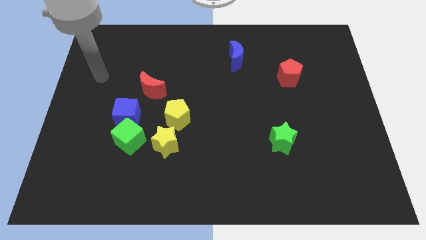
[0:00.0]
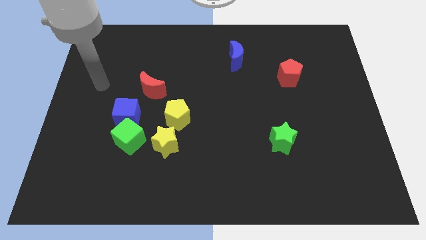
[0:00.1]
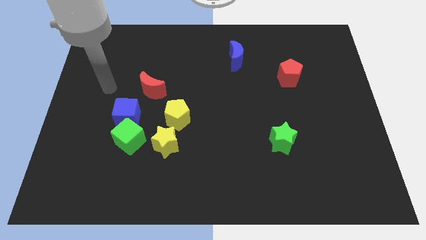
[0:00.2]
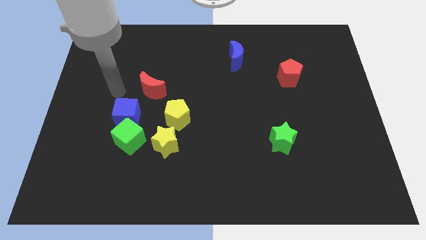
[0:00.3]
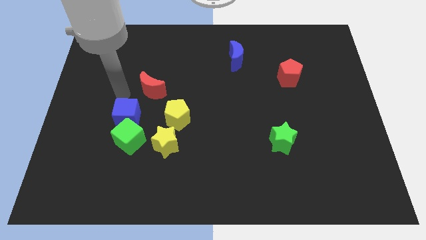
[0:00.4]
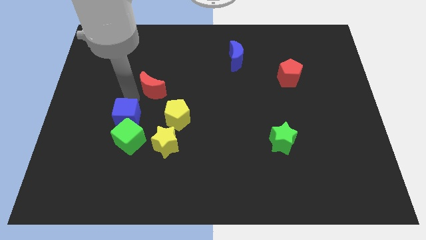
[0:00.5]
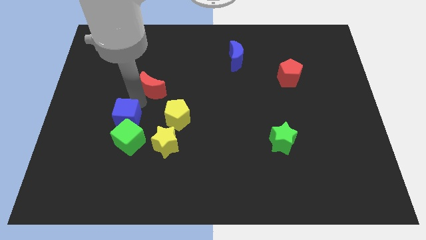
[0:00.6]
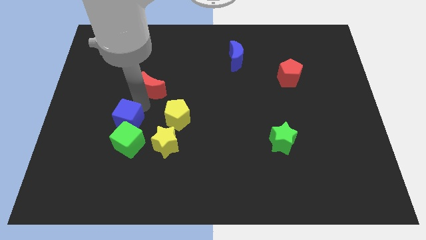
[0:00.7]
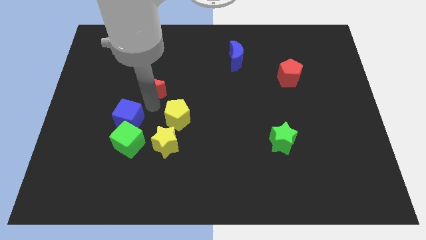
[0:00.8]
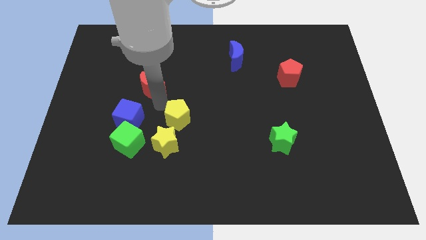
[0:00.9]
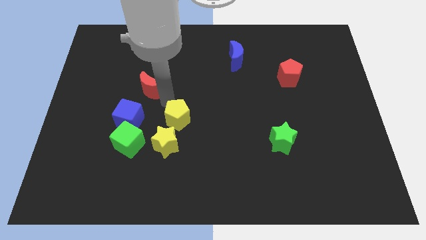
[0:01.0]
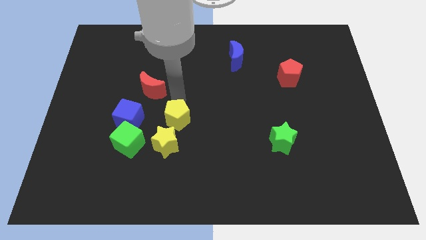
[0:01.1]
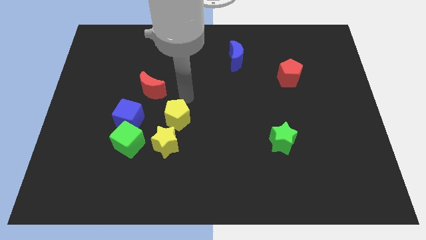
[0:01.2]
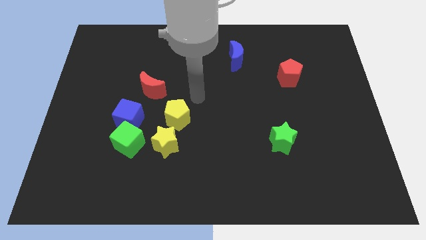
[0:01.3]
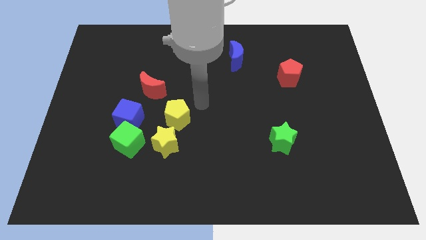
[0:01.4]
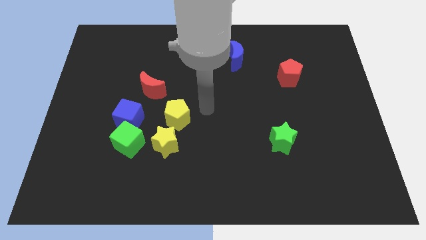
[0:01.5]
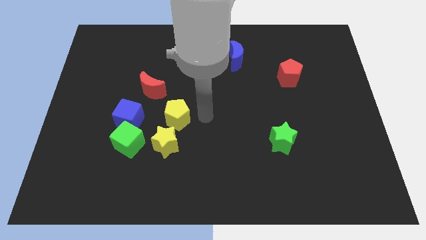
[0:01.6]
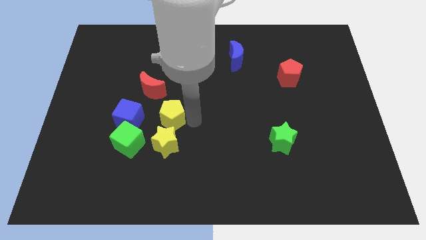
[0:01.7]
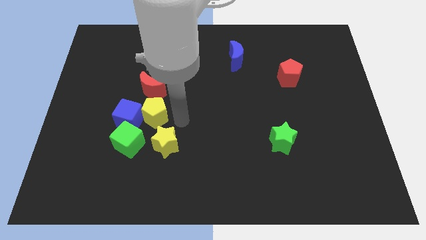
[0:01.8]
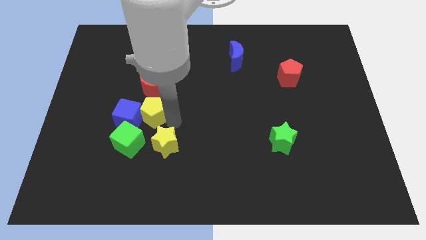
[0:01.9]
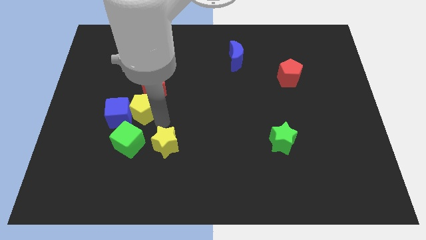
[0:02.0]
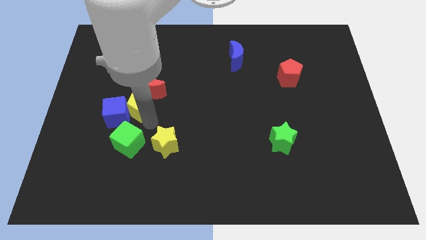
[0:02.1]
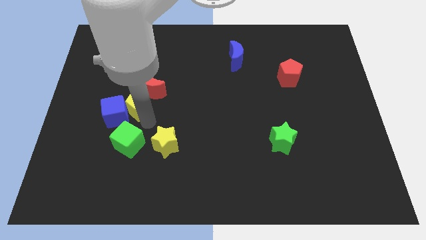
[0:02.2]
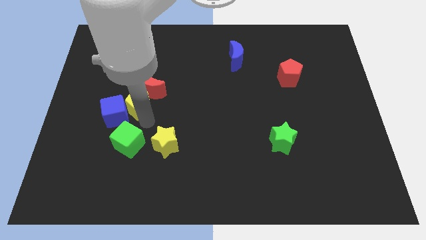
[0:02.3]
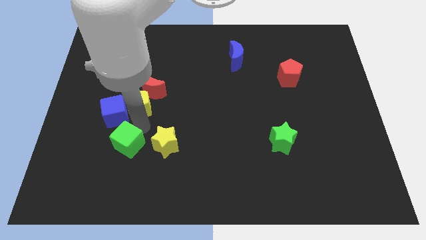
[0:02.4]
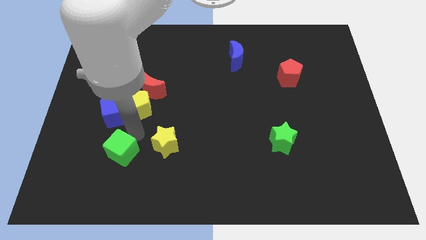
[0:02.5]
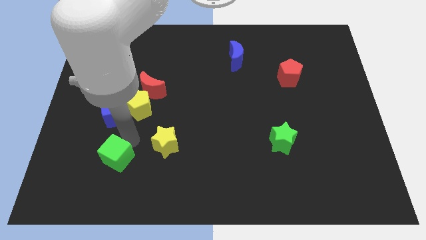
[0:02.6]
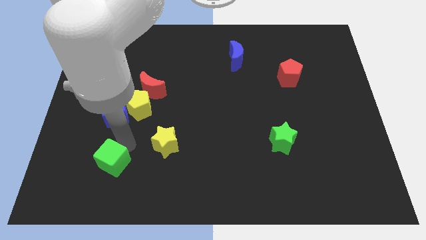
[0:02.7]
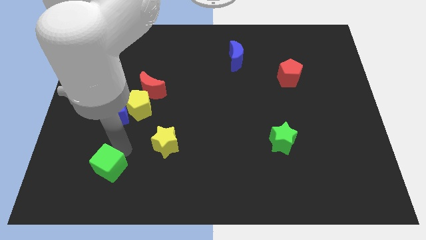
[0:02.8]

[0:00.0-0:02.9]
pull the green cube apart from the blue cube and yellow star

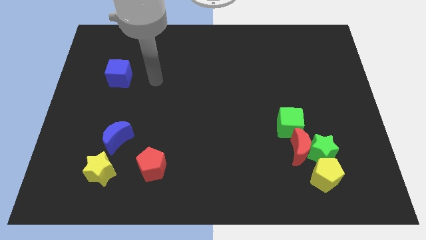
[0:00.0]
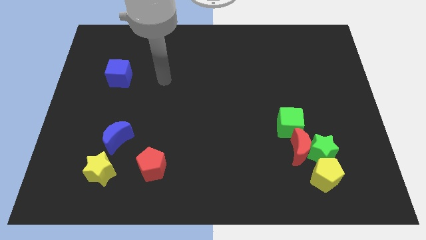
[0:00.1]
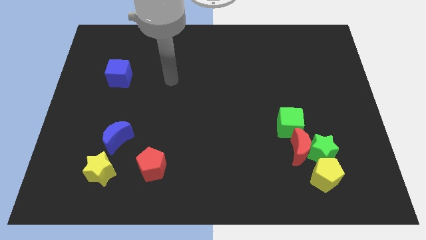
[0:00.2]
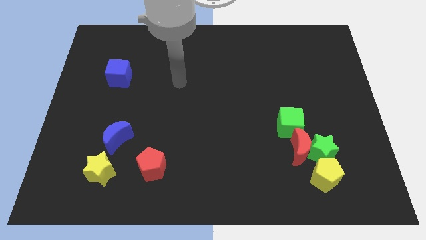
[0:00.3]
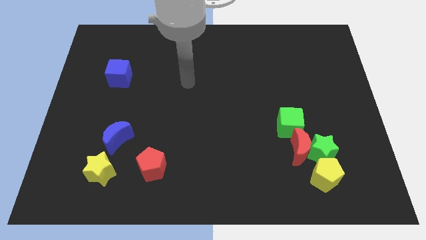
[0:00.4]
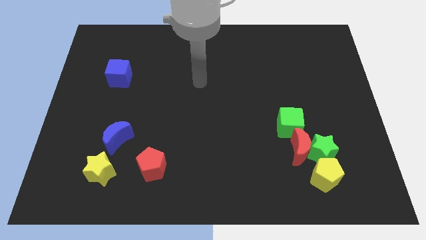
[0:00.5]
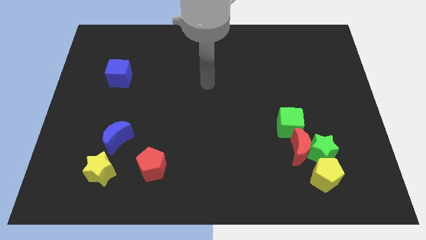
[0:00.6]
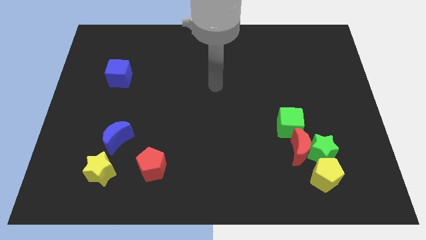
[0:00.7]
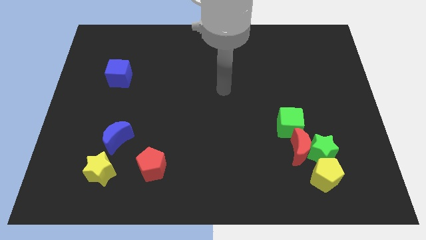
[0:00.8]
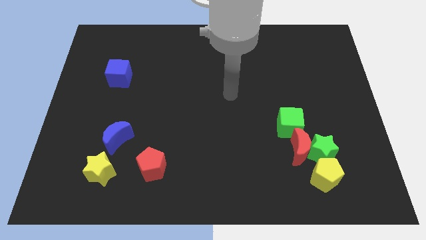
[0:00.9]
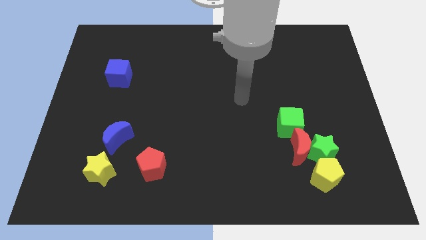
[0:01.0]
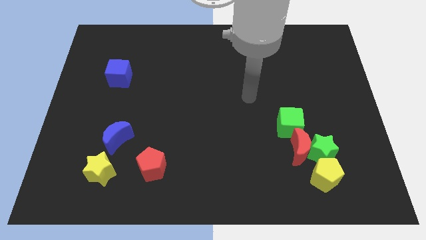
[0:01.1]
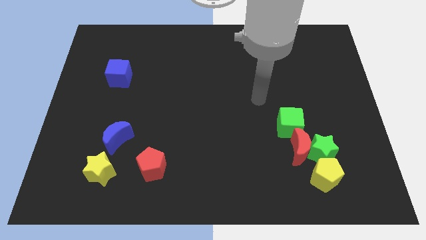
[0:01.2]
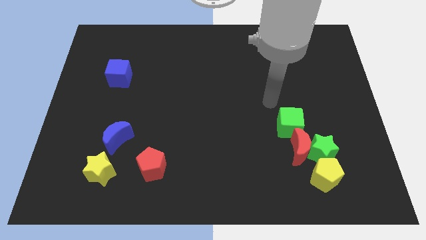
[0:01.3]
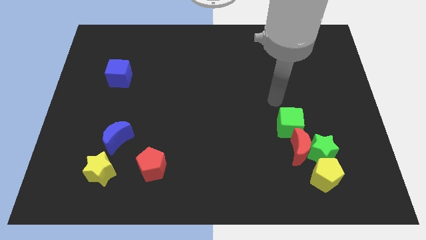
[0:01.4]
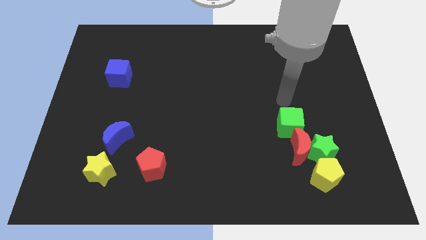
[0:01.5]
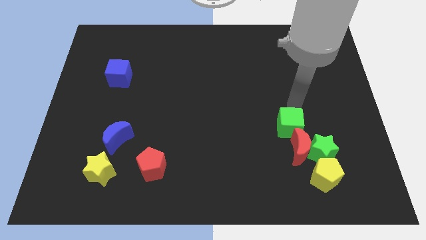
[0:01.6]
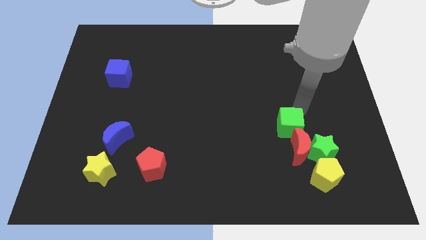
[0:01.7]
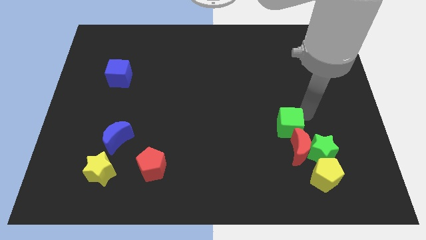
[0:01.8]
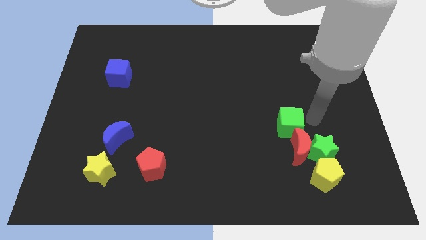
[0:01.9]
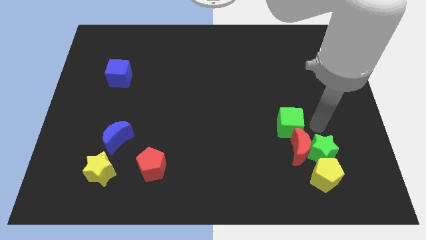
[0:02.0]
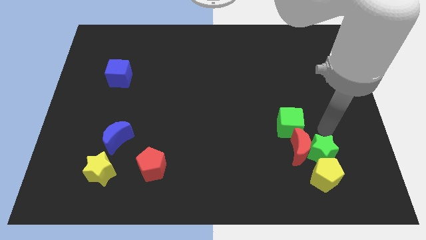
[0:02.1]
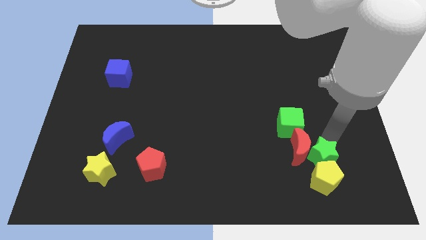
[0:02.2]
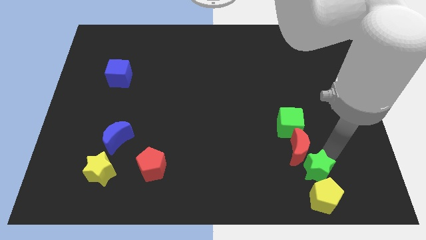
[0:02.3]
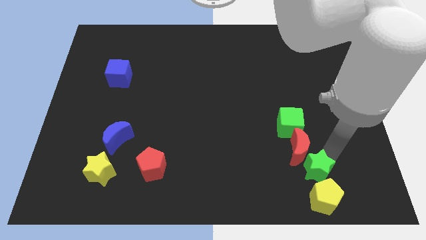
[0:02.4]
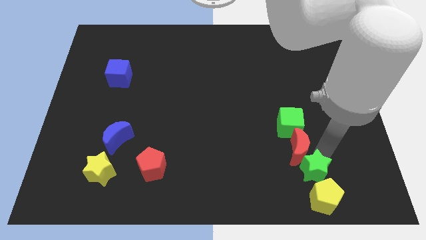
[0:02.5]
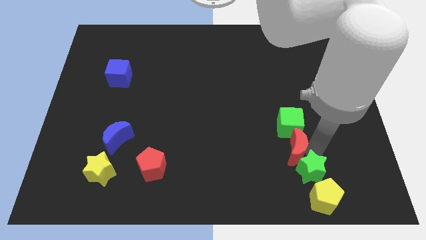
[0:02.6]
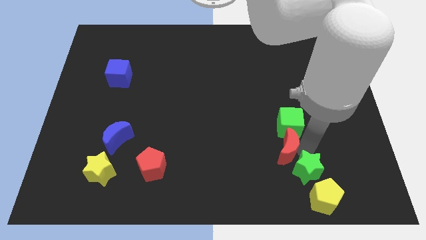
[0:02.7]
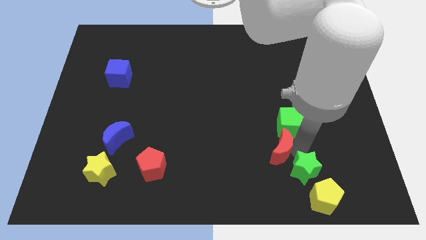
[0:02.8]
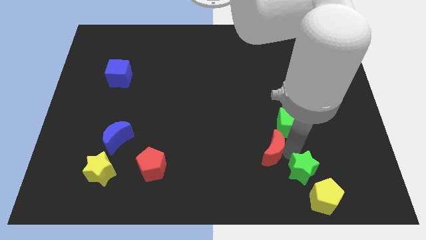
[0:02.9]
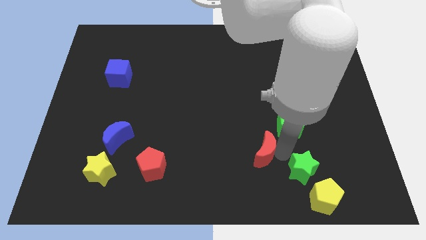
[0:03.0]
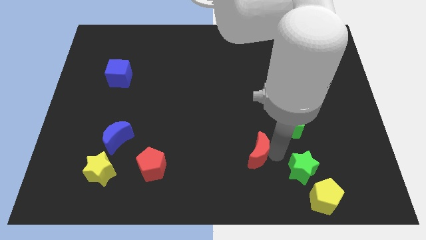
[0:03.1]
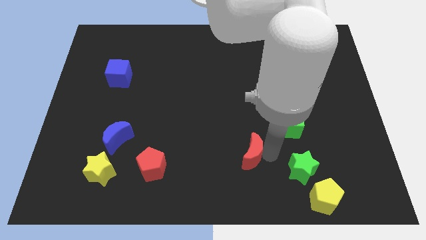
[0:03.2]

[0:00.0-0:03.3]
pull the red moon apart from the green star, green cube, and yellow pentagon

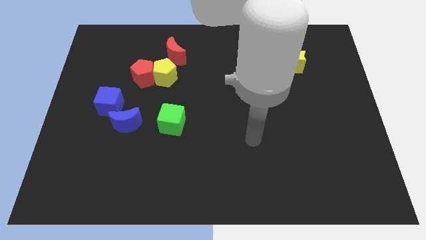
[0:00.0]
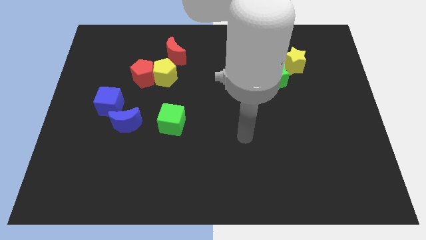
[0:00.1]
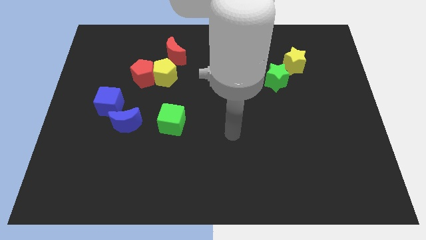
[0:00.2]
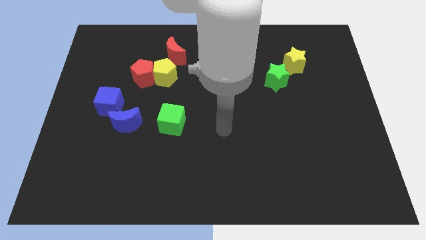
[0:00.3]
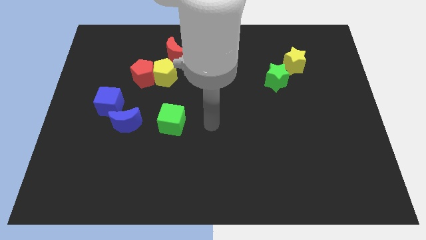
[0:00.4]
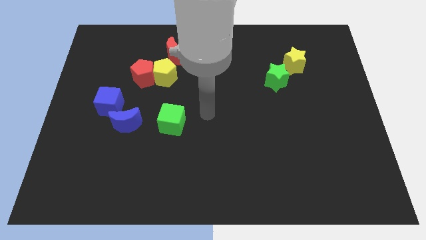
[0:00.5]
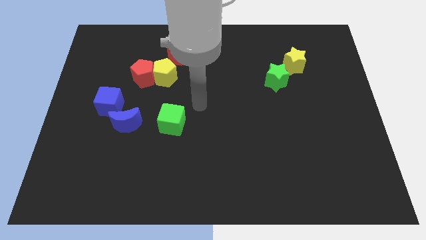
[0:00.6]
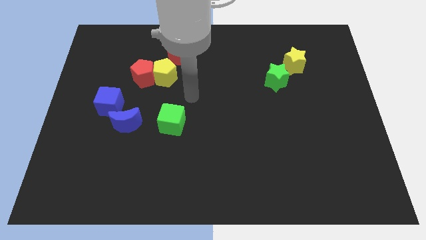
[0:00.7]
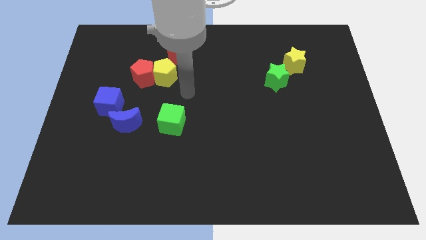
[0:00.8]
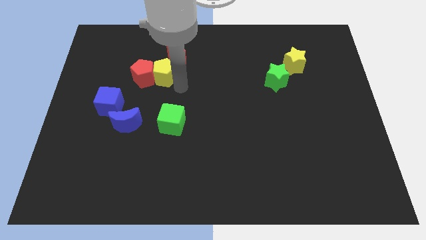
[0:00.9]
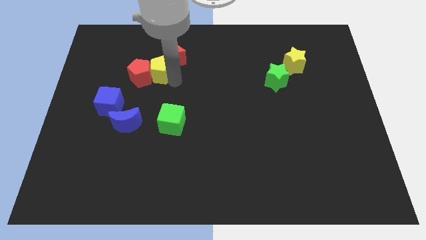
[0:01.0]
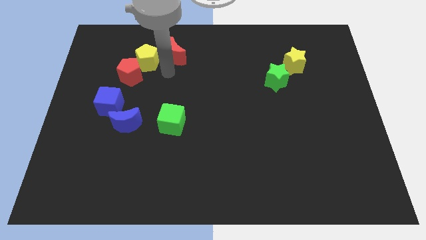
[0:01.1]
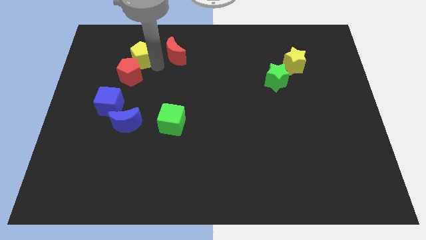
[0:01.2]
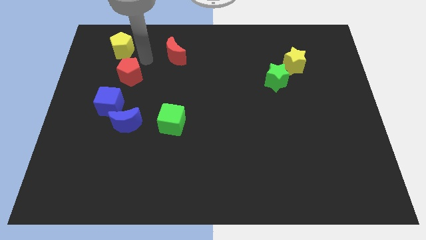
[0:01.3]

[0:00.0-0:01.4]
pull the red pentagon apart from the yellow pentagon

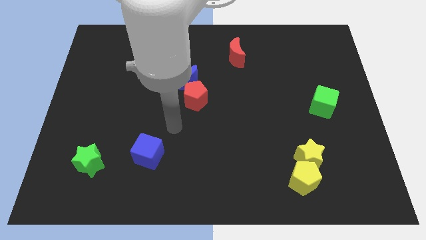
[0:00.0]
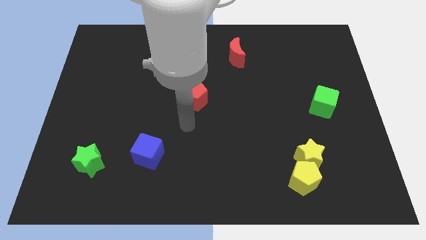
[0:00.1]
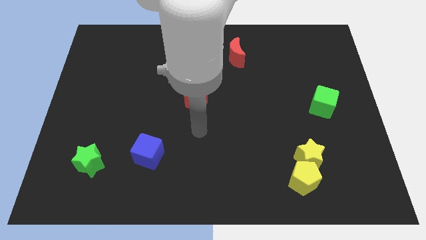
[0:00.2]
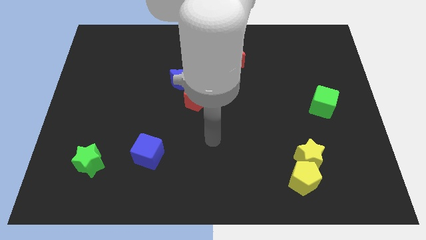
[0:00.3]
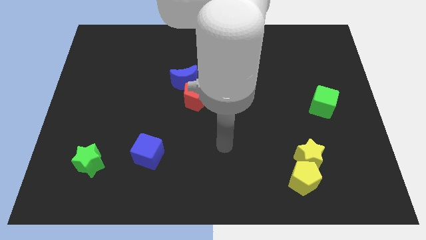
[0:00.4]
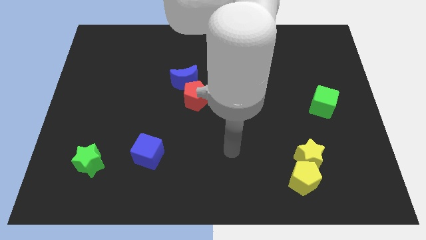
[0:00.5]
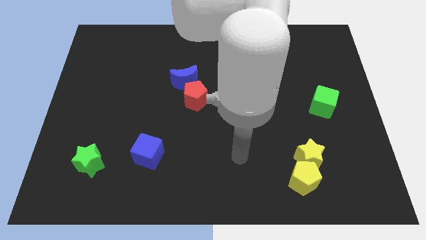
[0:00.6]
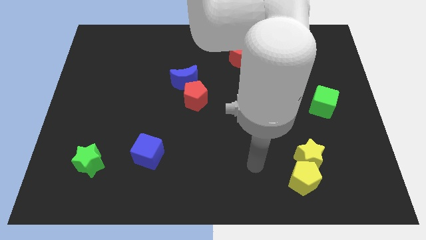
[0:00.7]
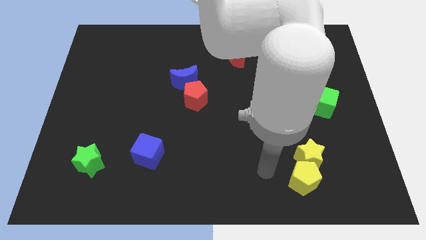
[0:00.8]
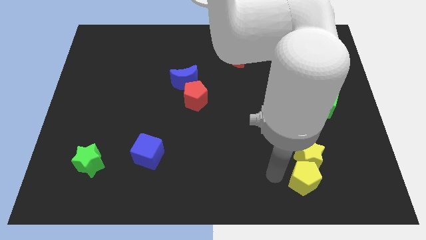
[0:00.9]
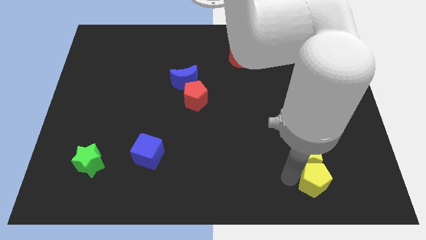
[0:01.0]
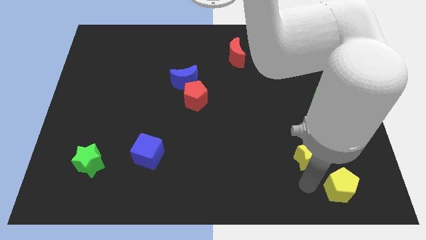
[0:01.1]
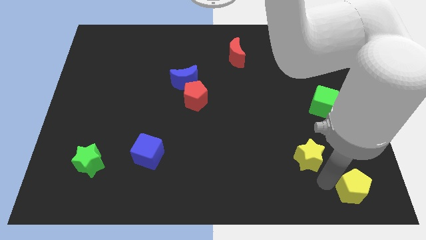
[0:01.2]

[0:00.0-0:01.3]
move the yellow star away from the yellow pentagon

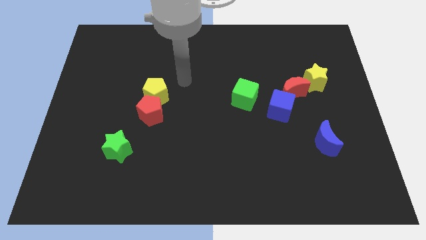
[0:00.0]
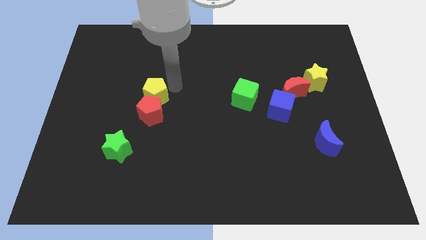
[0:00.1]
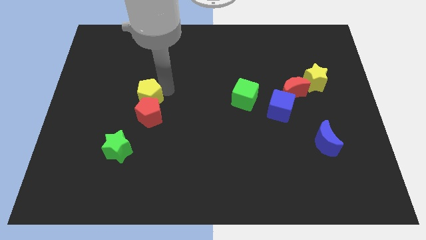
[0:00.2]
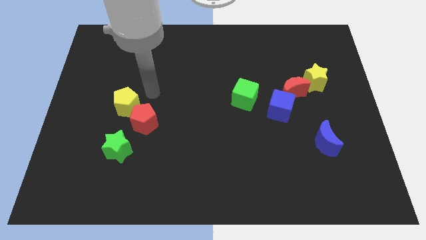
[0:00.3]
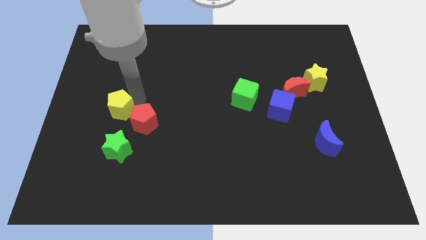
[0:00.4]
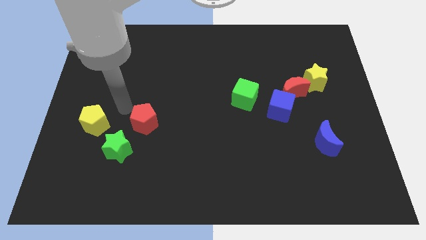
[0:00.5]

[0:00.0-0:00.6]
separate the red pentagon from the yellow pentagon
